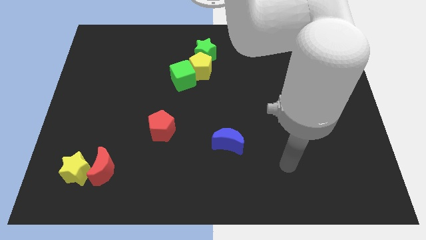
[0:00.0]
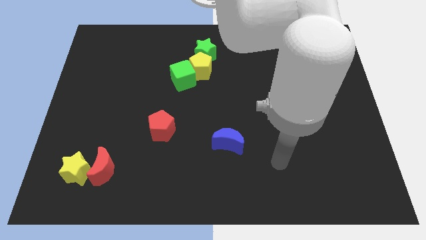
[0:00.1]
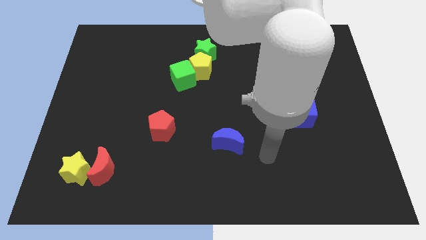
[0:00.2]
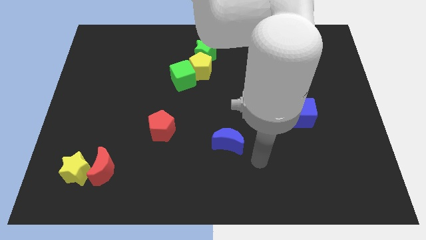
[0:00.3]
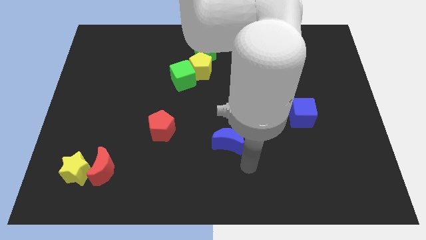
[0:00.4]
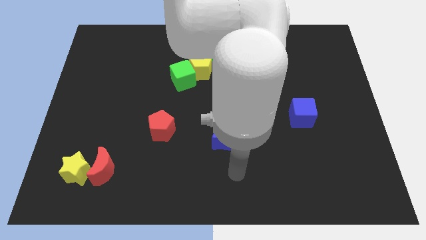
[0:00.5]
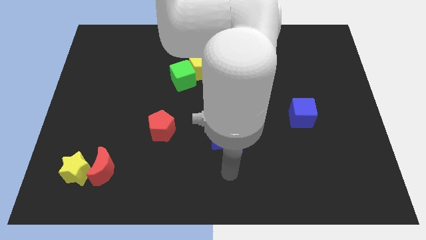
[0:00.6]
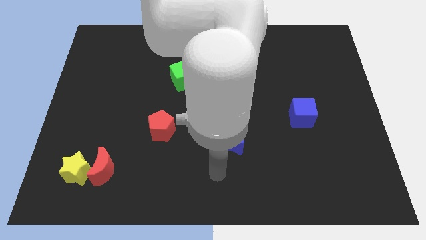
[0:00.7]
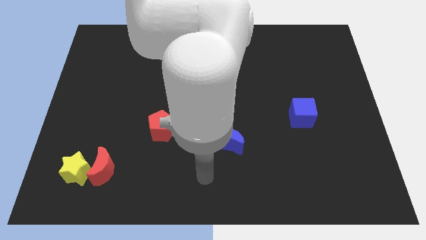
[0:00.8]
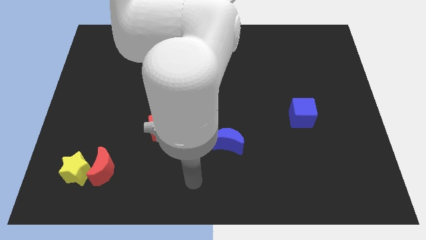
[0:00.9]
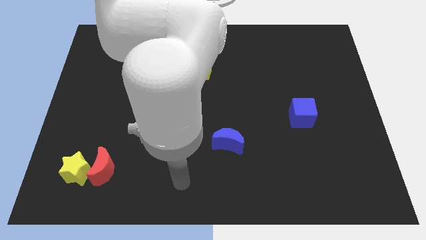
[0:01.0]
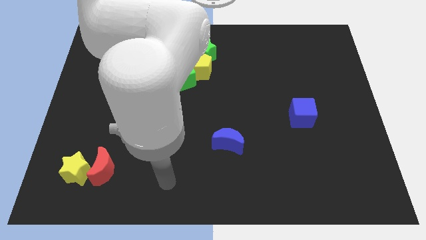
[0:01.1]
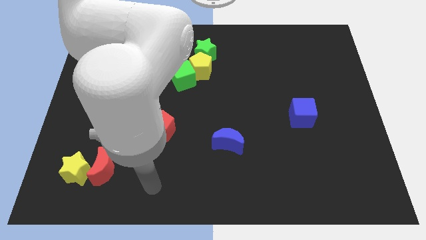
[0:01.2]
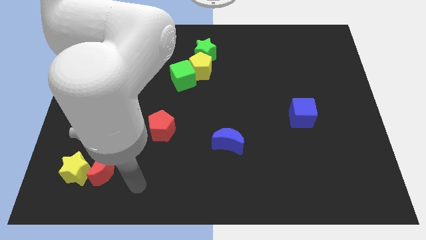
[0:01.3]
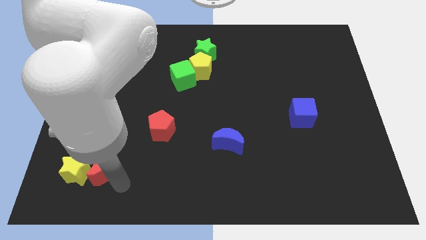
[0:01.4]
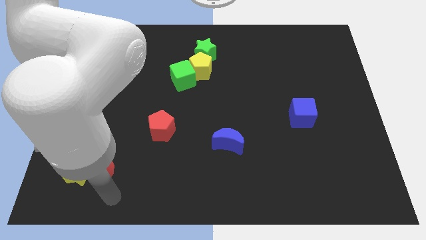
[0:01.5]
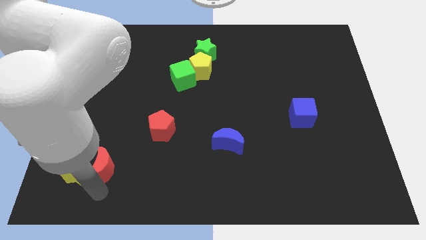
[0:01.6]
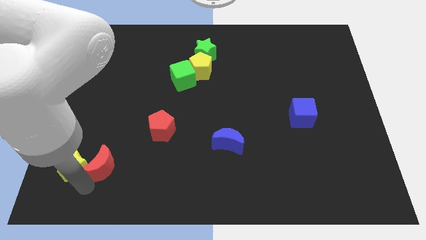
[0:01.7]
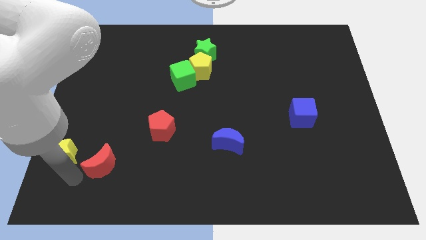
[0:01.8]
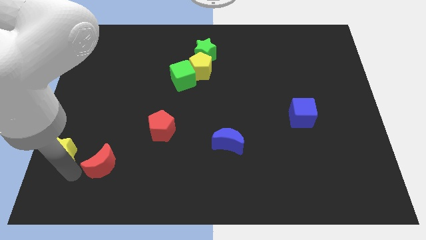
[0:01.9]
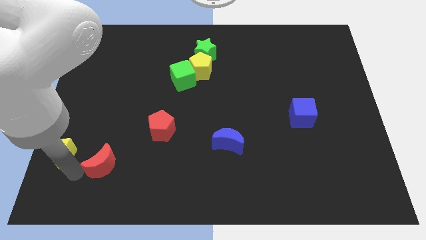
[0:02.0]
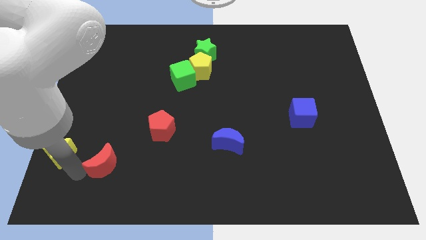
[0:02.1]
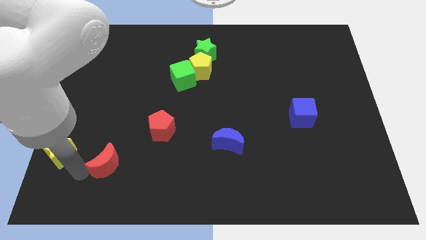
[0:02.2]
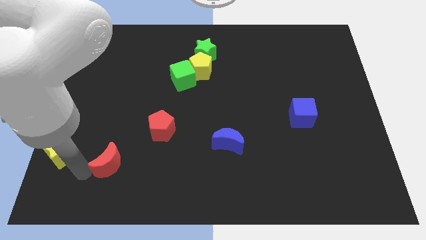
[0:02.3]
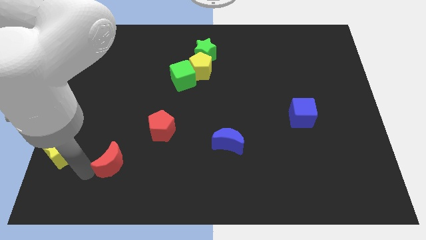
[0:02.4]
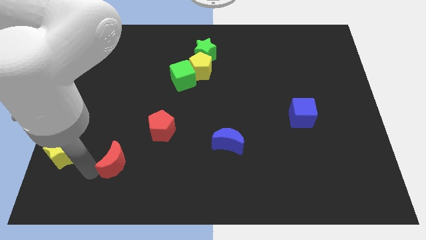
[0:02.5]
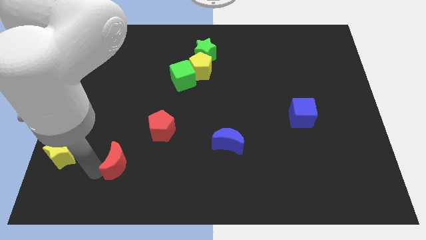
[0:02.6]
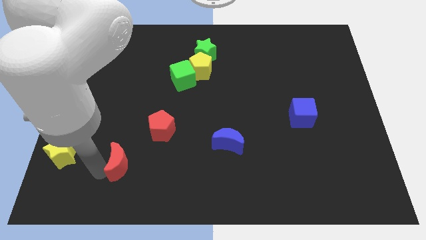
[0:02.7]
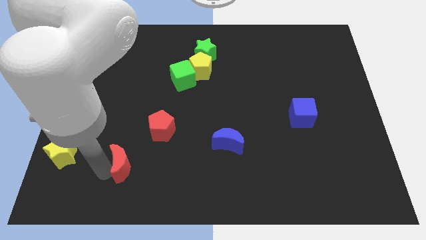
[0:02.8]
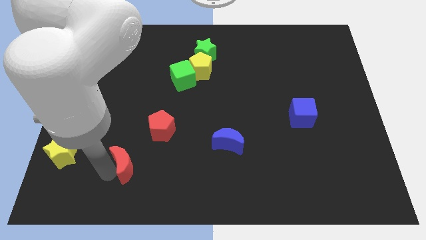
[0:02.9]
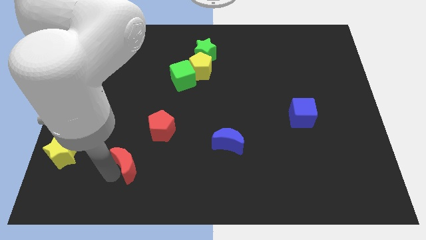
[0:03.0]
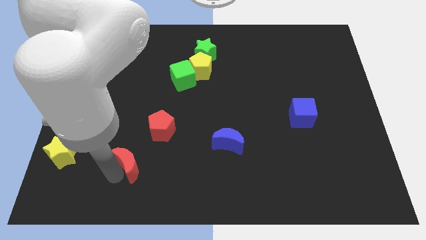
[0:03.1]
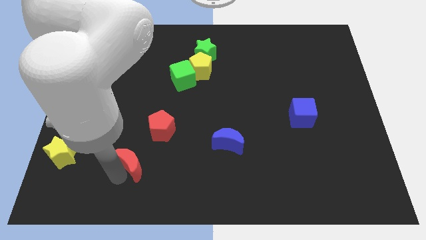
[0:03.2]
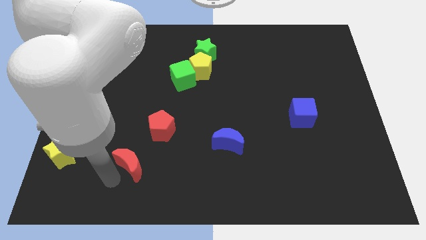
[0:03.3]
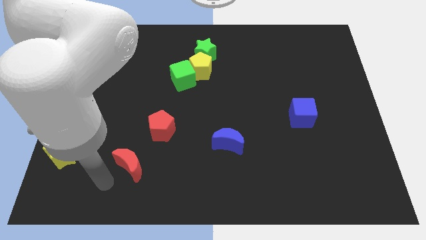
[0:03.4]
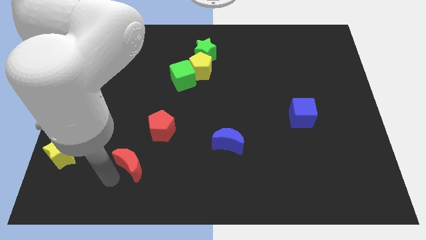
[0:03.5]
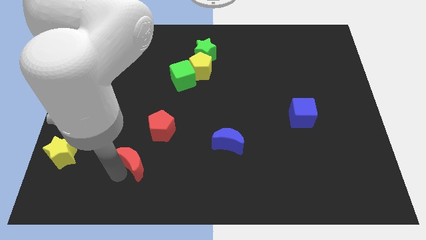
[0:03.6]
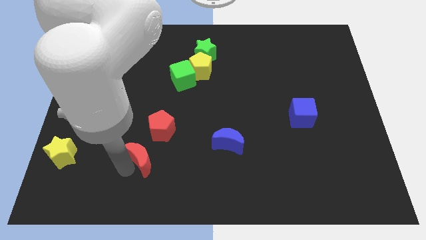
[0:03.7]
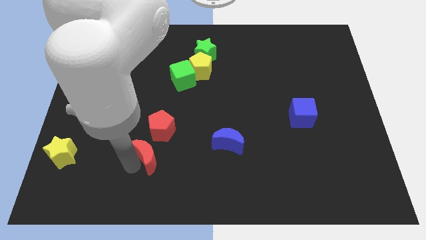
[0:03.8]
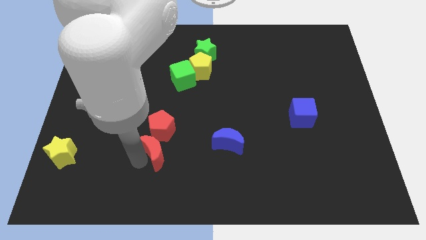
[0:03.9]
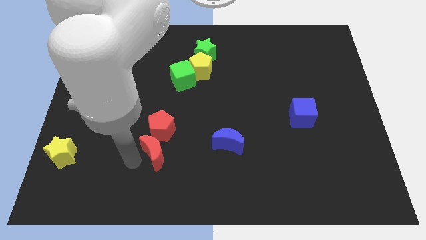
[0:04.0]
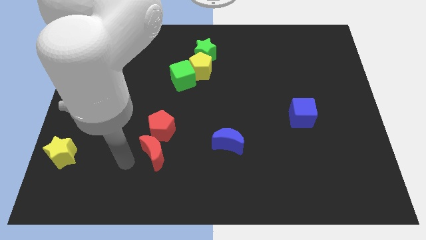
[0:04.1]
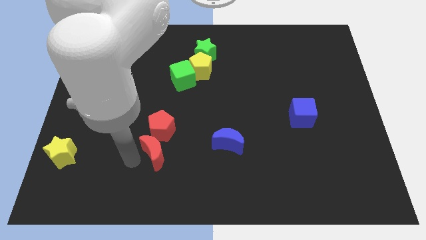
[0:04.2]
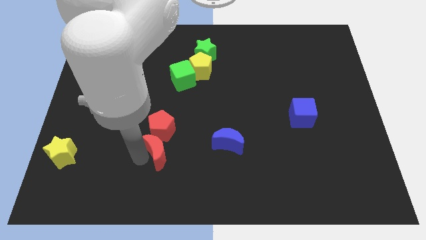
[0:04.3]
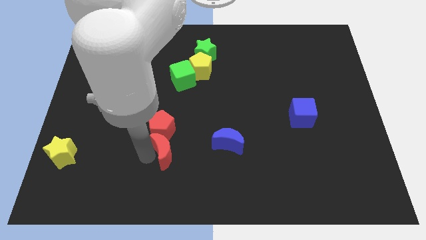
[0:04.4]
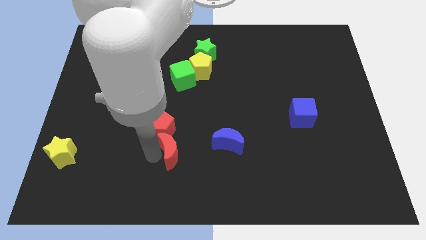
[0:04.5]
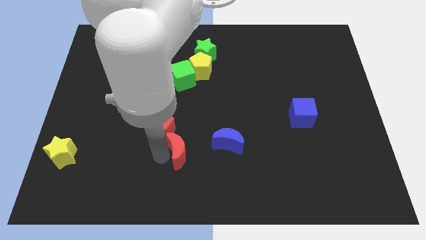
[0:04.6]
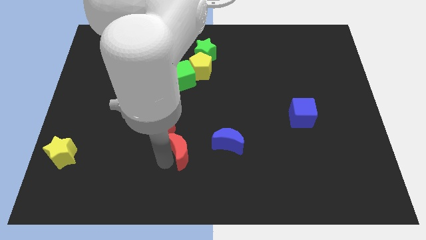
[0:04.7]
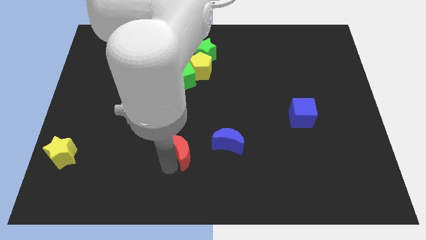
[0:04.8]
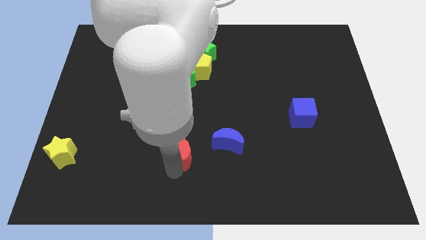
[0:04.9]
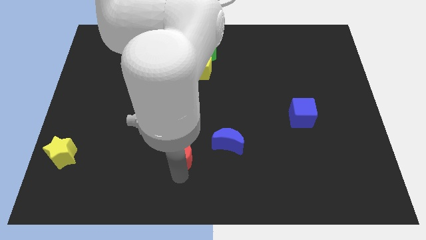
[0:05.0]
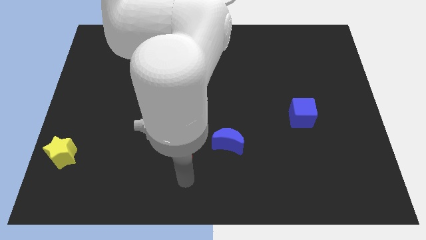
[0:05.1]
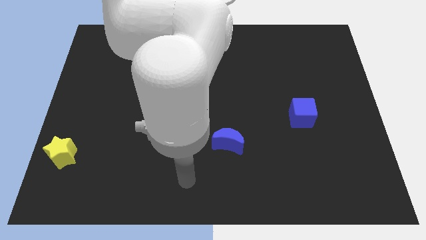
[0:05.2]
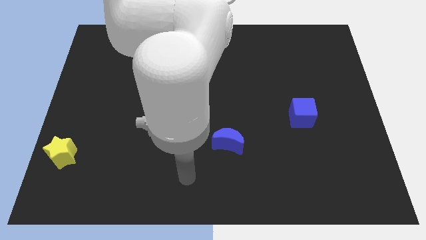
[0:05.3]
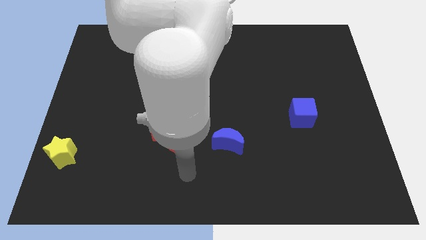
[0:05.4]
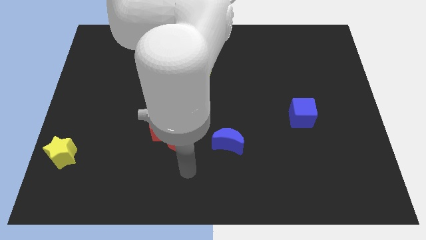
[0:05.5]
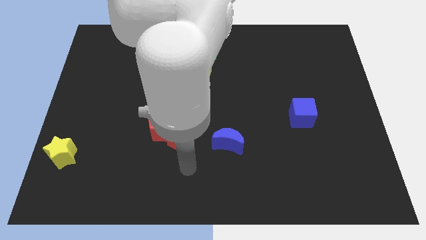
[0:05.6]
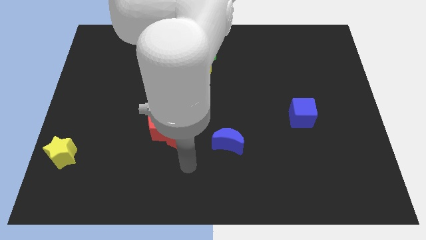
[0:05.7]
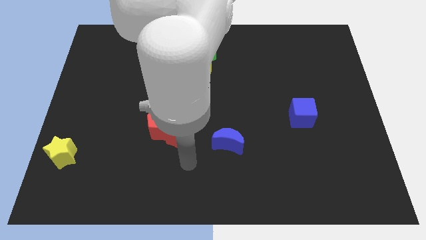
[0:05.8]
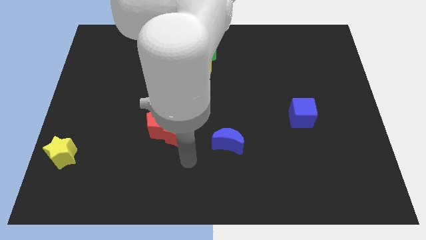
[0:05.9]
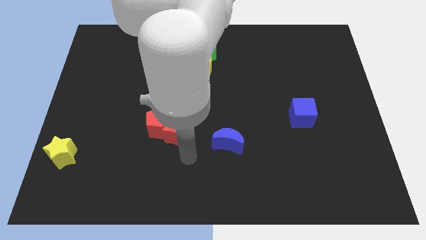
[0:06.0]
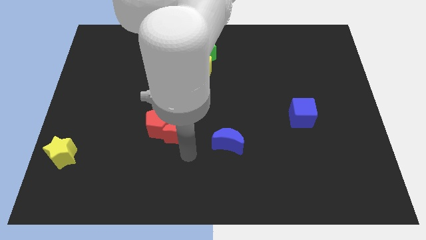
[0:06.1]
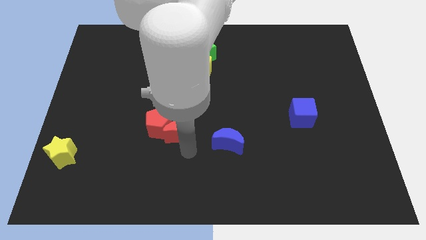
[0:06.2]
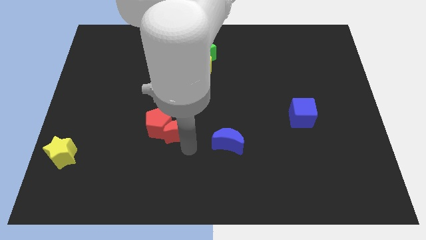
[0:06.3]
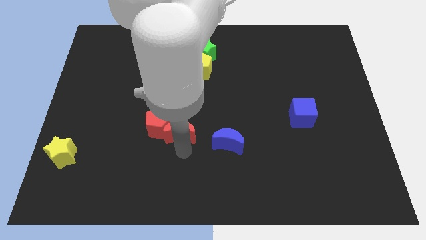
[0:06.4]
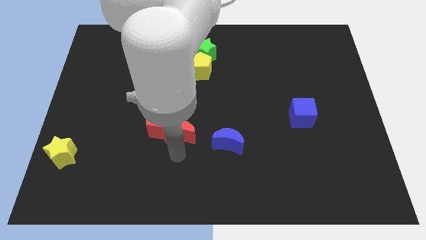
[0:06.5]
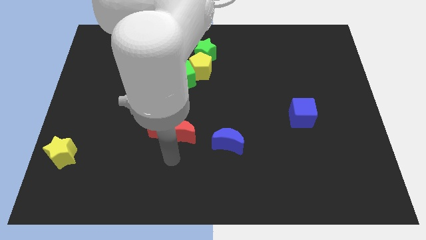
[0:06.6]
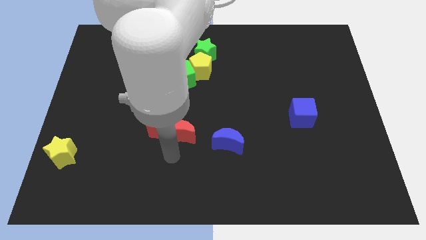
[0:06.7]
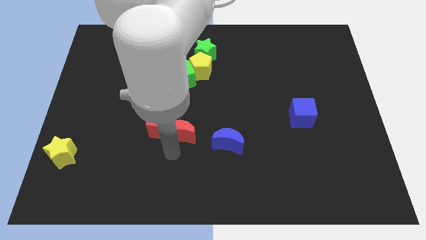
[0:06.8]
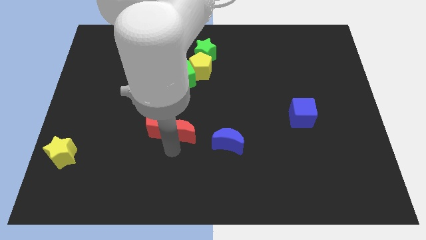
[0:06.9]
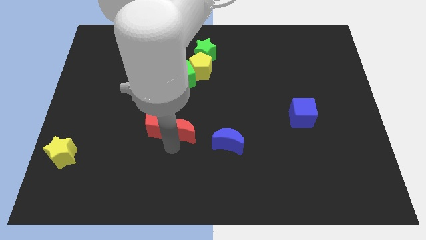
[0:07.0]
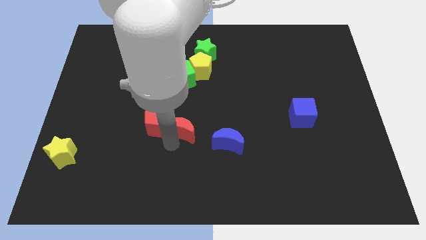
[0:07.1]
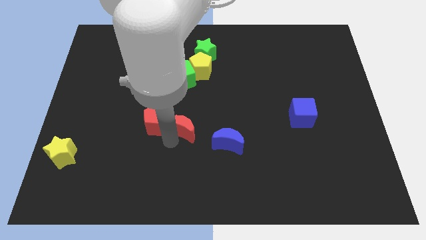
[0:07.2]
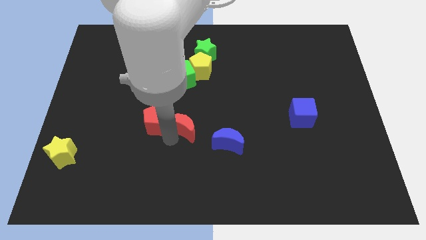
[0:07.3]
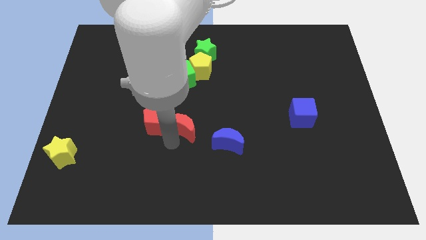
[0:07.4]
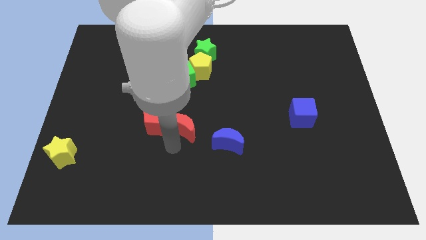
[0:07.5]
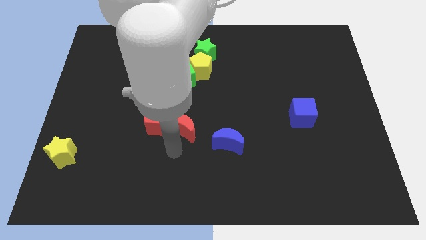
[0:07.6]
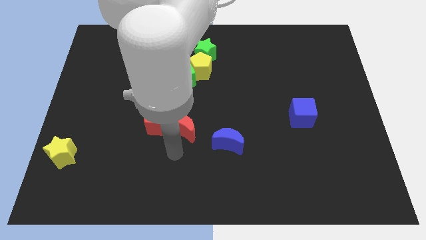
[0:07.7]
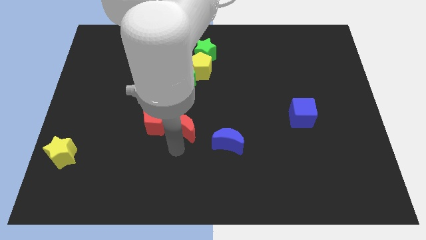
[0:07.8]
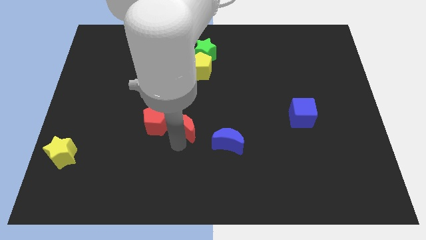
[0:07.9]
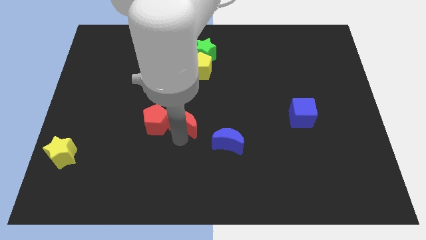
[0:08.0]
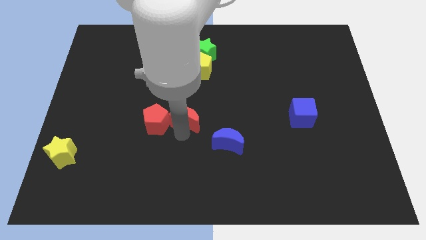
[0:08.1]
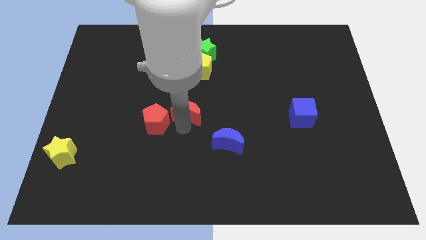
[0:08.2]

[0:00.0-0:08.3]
slide the red moon to the bottom of the yellow pentagon
